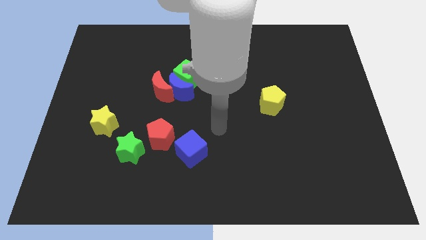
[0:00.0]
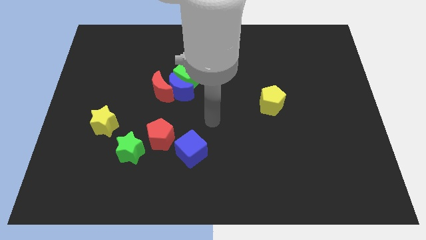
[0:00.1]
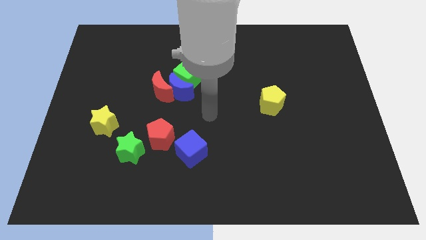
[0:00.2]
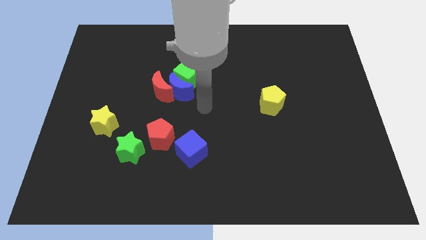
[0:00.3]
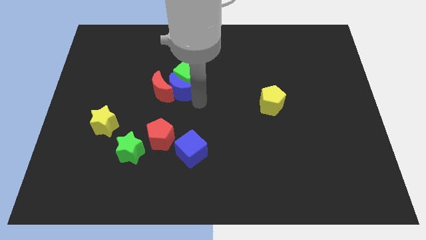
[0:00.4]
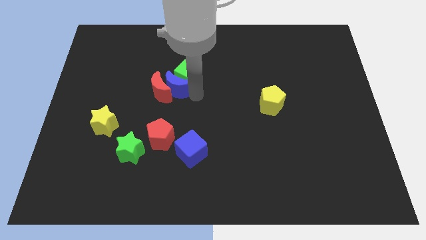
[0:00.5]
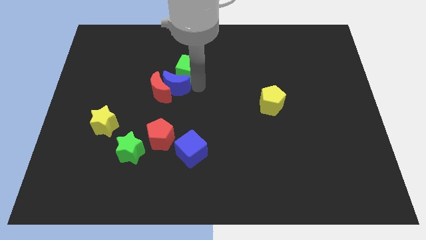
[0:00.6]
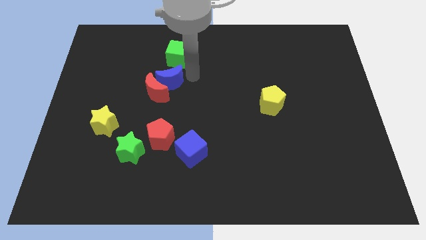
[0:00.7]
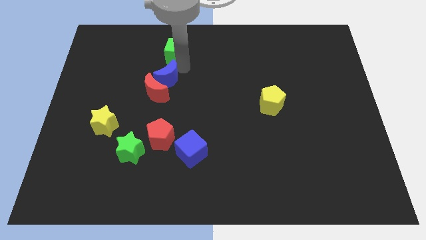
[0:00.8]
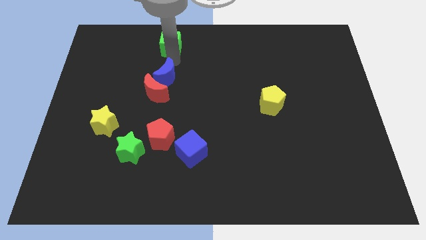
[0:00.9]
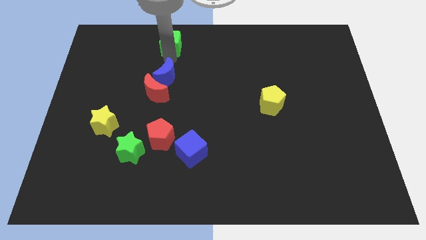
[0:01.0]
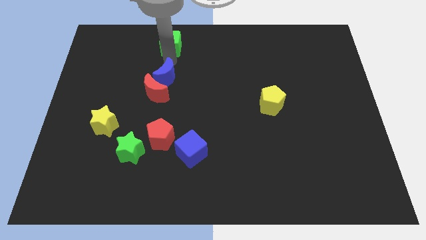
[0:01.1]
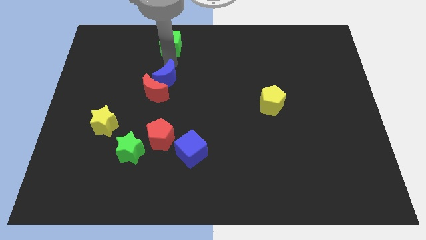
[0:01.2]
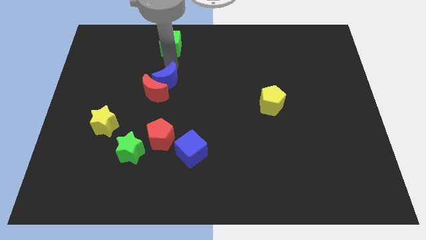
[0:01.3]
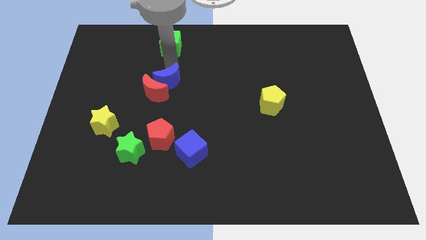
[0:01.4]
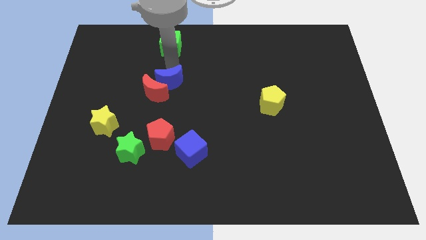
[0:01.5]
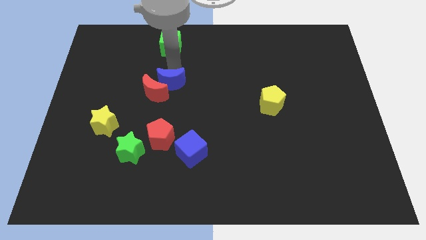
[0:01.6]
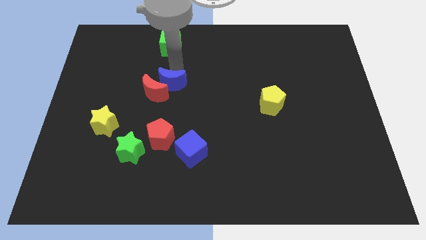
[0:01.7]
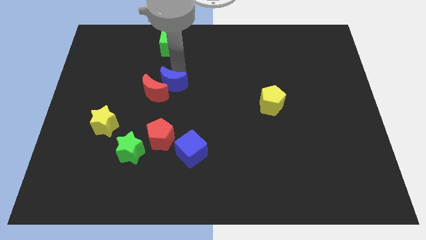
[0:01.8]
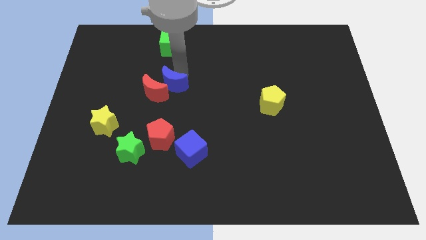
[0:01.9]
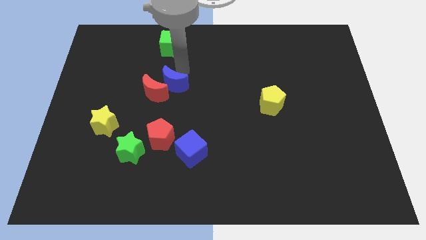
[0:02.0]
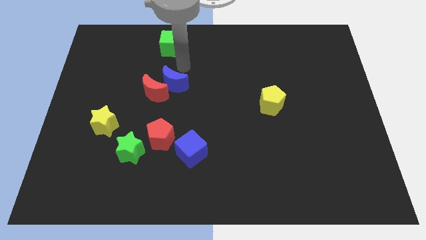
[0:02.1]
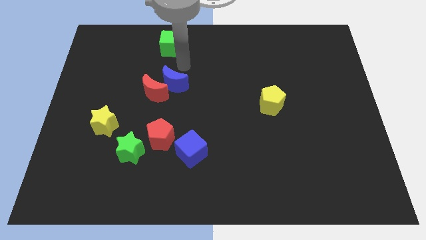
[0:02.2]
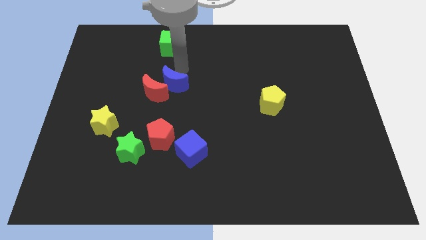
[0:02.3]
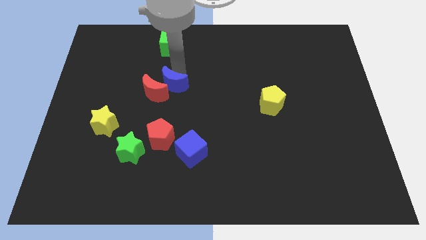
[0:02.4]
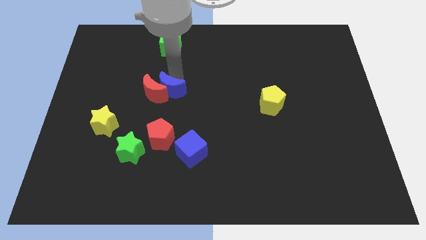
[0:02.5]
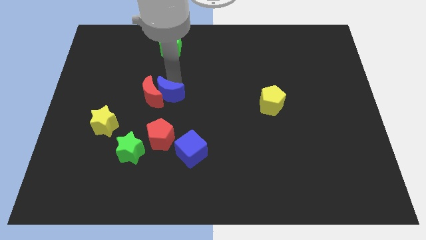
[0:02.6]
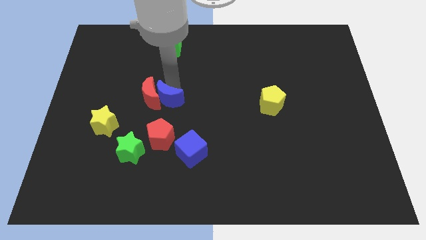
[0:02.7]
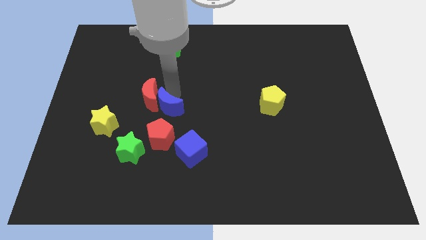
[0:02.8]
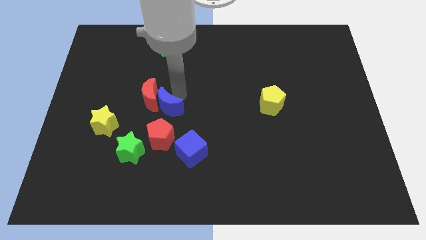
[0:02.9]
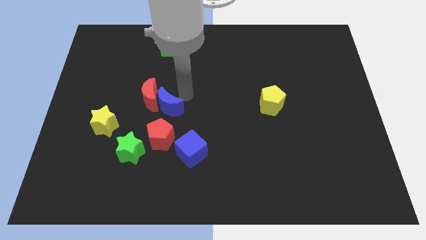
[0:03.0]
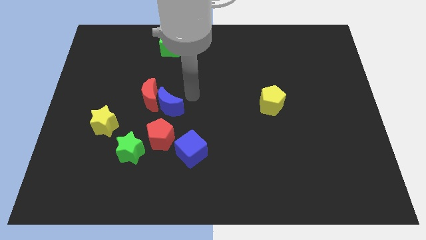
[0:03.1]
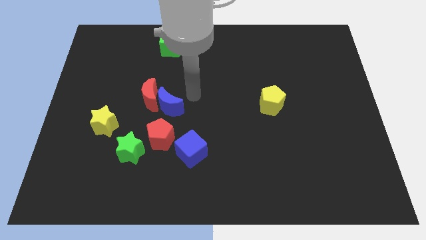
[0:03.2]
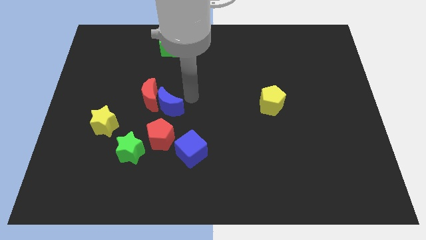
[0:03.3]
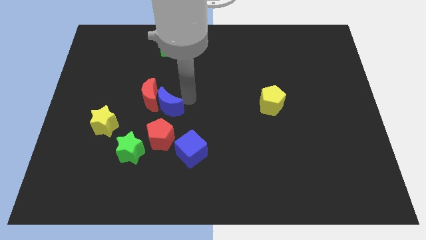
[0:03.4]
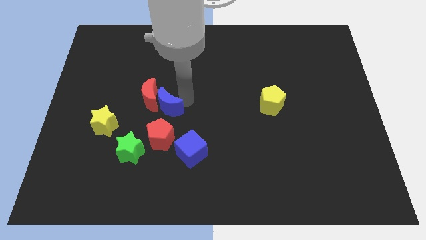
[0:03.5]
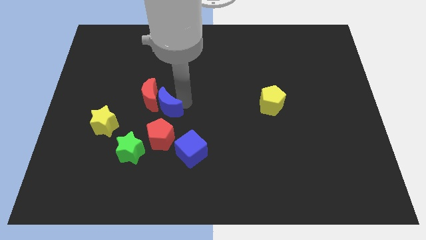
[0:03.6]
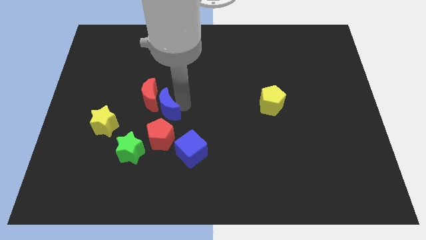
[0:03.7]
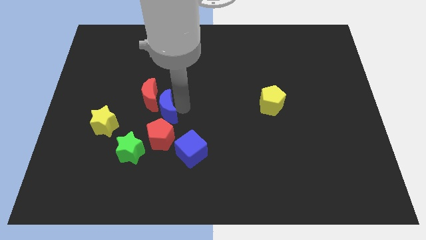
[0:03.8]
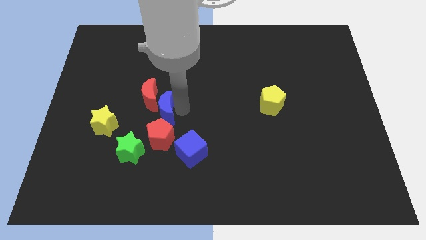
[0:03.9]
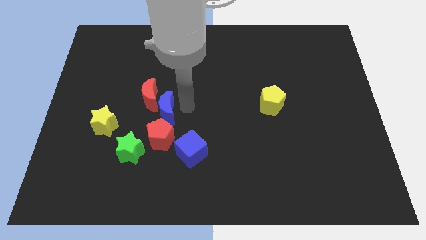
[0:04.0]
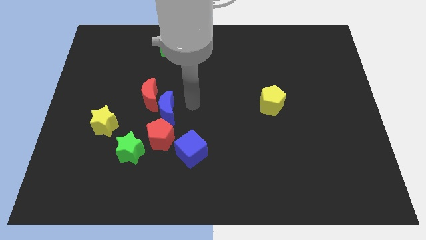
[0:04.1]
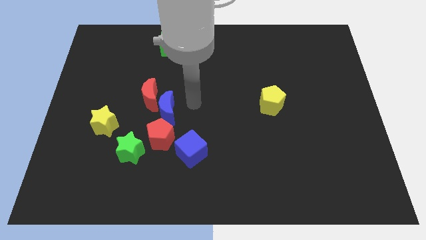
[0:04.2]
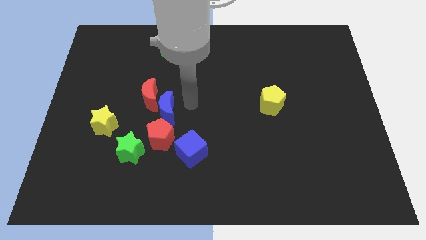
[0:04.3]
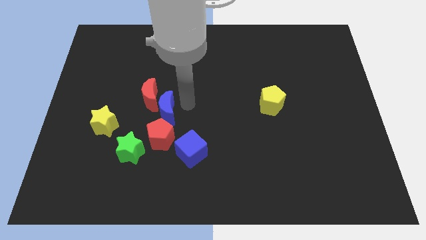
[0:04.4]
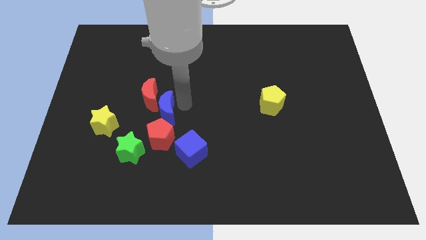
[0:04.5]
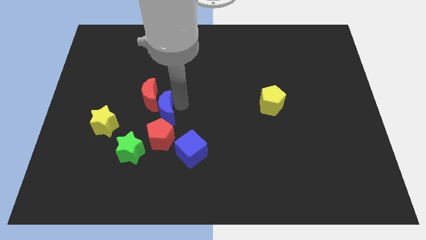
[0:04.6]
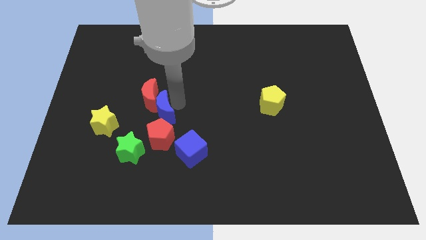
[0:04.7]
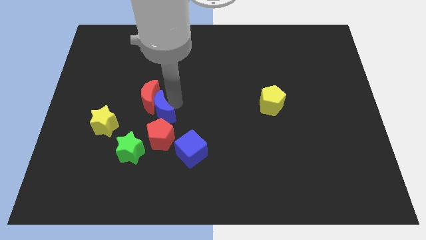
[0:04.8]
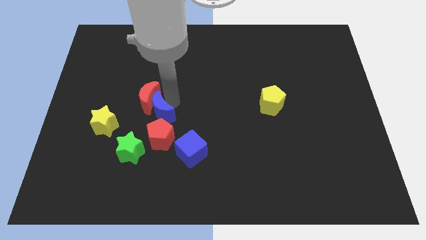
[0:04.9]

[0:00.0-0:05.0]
slide the blue moon diagonally up and to the left of the red pentagon

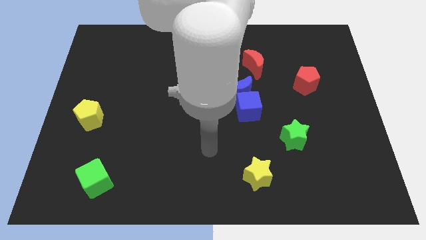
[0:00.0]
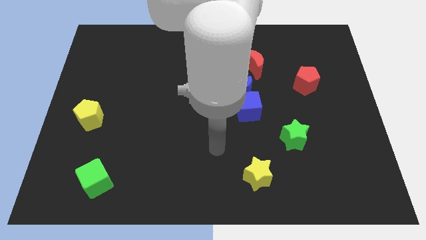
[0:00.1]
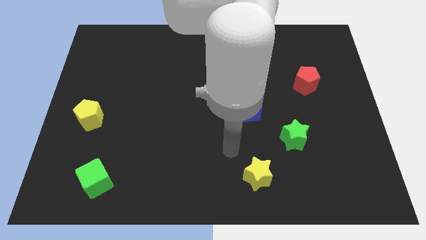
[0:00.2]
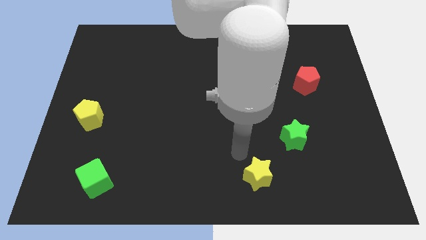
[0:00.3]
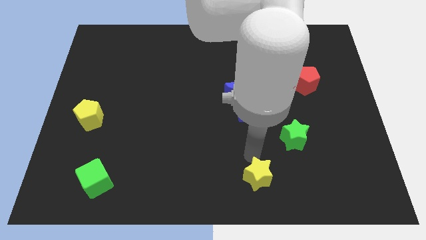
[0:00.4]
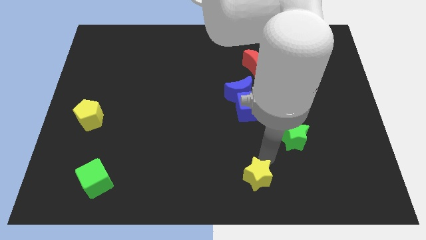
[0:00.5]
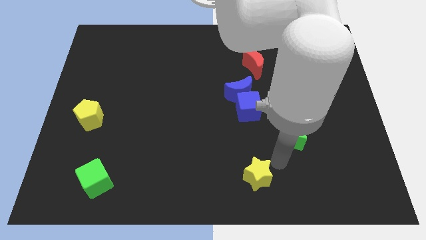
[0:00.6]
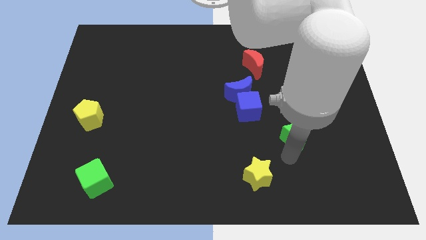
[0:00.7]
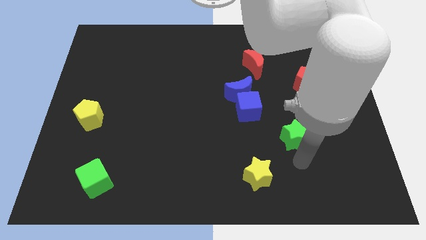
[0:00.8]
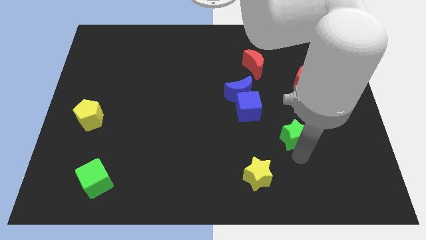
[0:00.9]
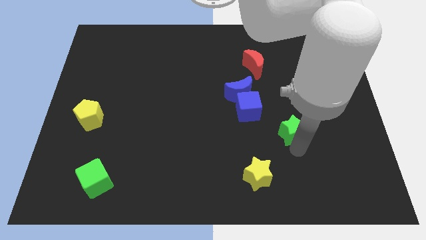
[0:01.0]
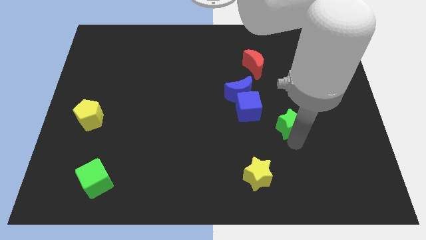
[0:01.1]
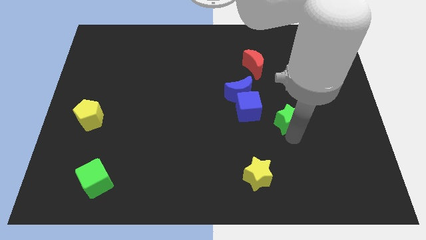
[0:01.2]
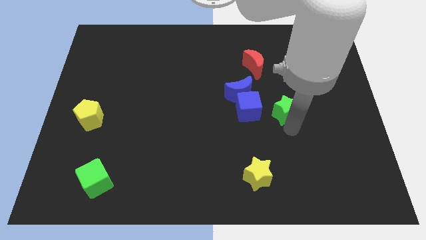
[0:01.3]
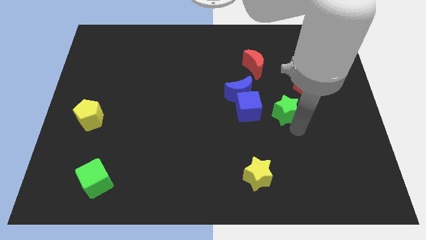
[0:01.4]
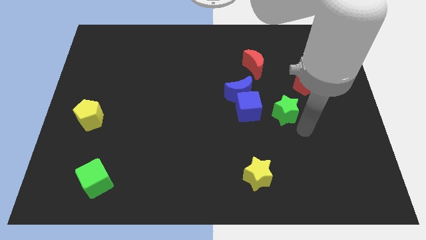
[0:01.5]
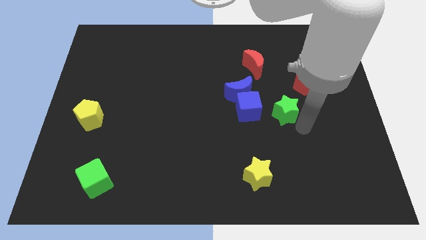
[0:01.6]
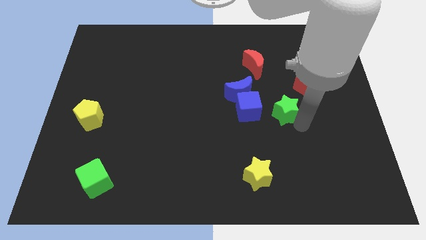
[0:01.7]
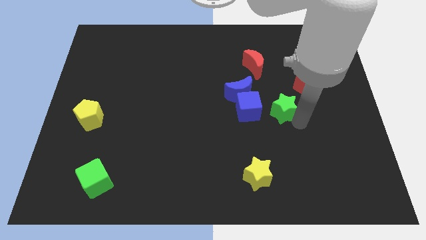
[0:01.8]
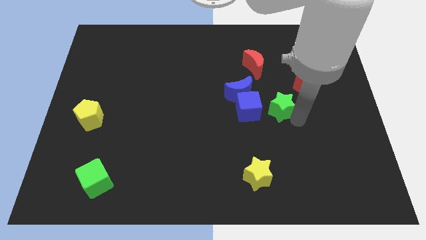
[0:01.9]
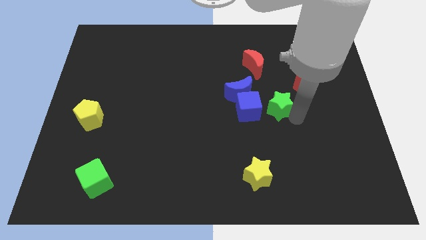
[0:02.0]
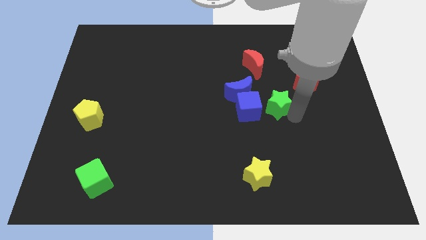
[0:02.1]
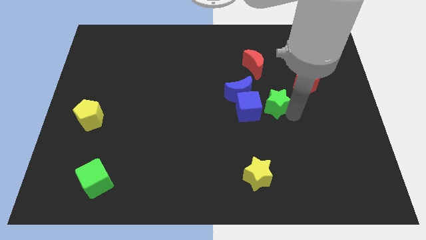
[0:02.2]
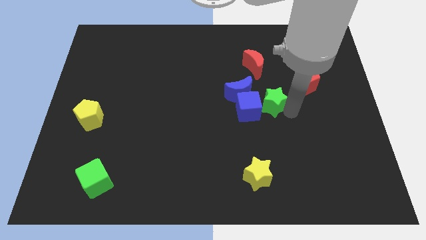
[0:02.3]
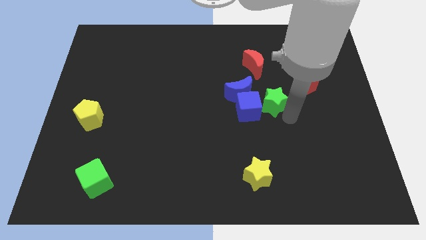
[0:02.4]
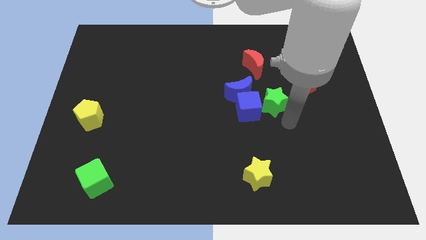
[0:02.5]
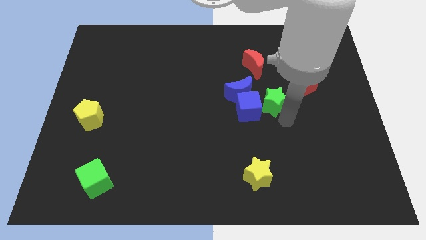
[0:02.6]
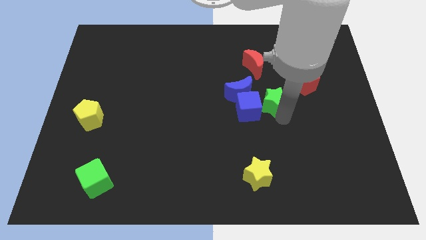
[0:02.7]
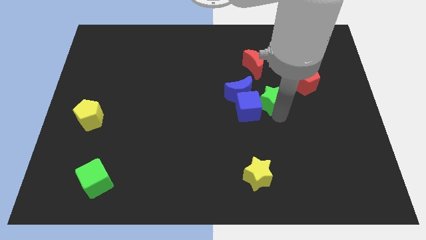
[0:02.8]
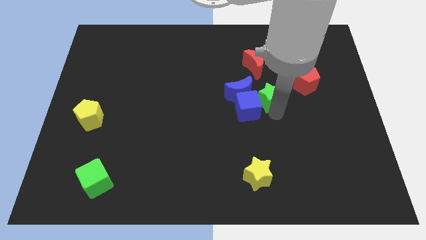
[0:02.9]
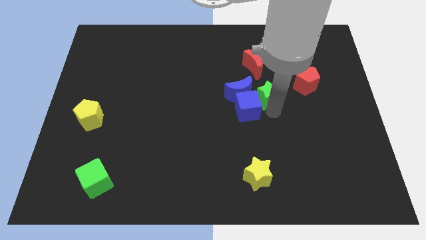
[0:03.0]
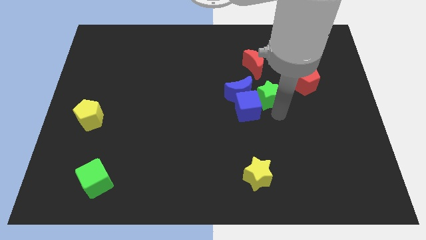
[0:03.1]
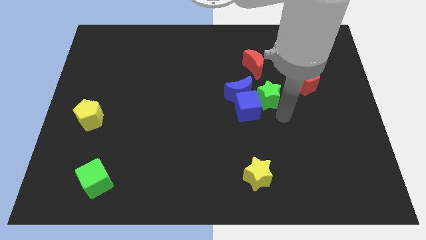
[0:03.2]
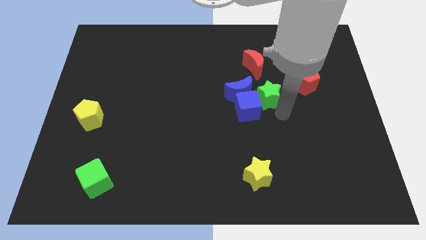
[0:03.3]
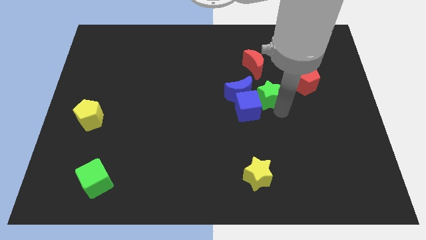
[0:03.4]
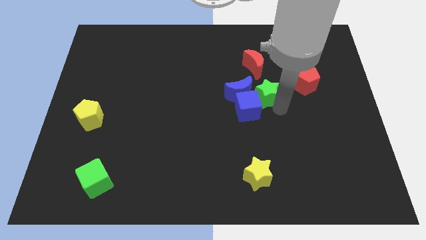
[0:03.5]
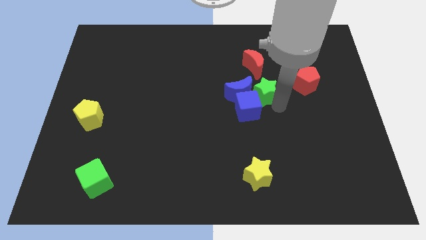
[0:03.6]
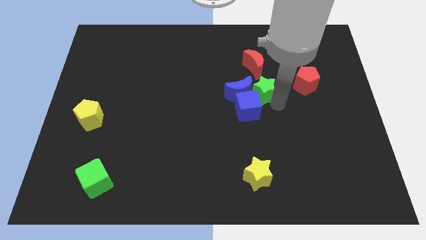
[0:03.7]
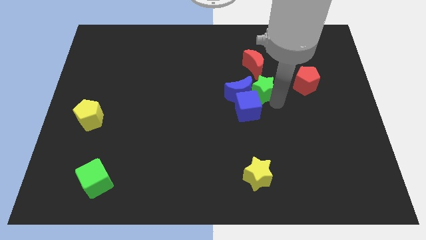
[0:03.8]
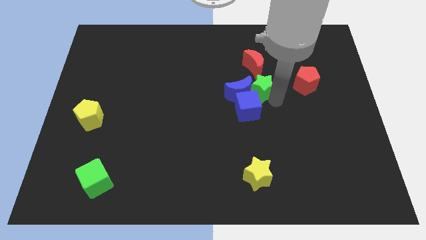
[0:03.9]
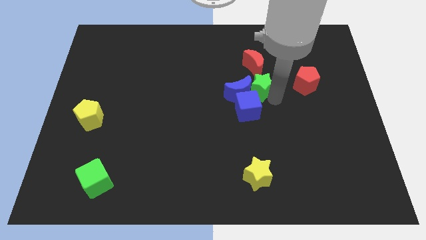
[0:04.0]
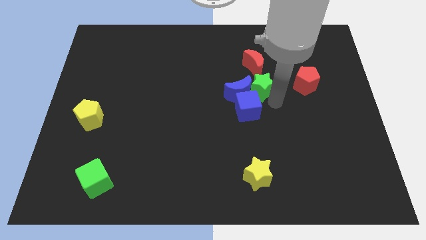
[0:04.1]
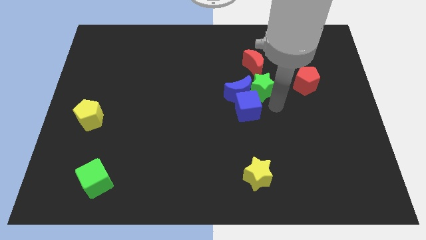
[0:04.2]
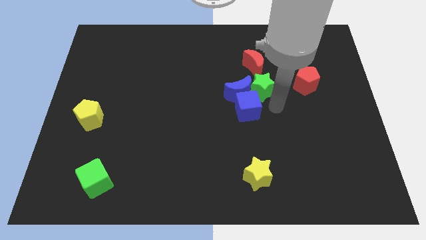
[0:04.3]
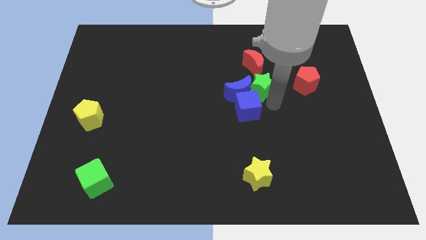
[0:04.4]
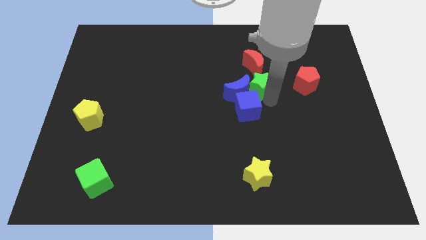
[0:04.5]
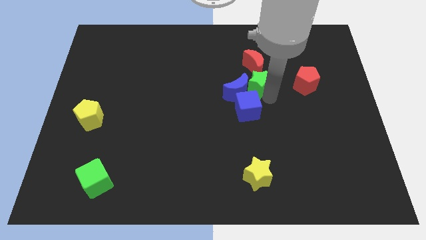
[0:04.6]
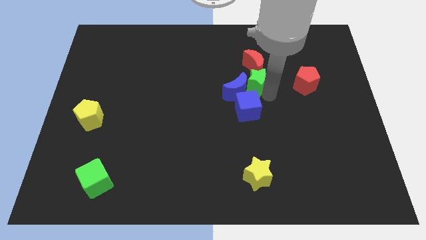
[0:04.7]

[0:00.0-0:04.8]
slide the green star diagonally down and to the left of the red moon
